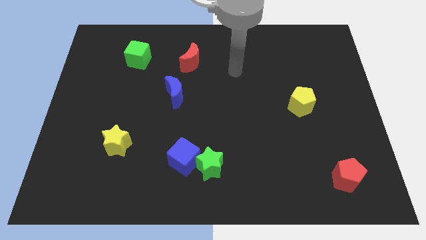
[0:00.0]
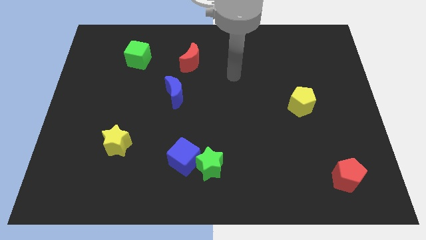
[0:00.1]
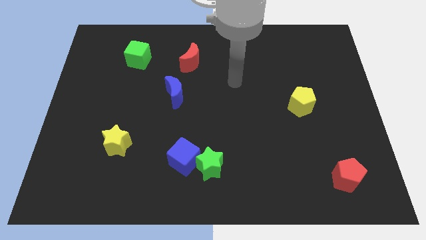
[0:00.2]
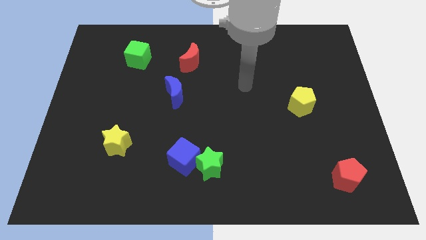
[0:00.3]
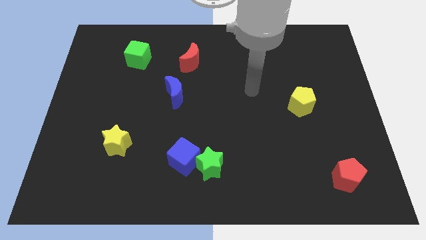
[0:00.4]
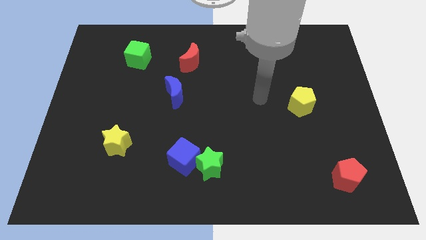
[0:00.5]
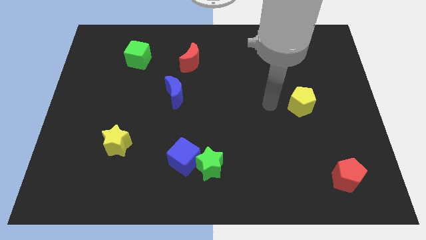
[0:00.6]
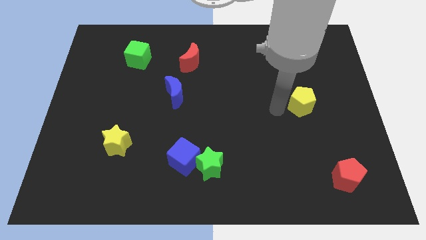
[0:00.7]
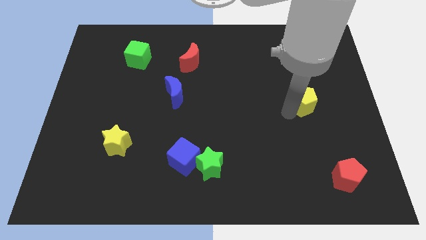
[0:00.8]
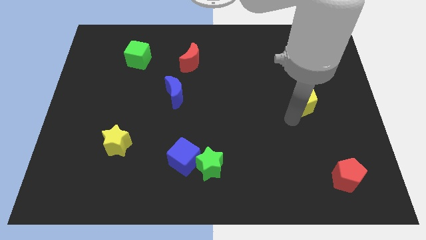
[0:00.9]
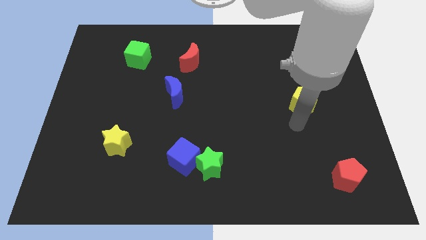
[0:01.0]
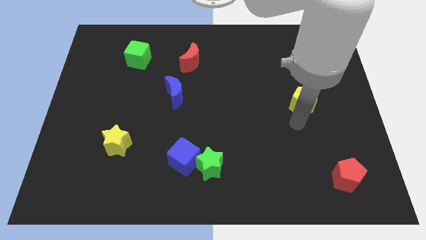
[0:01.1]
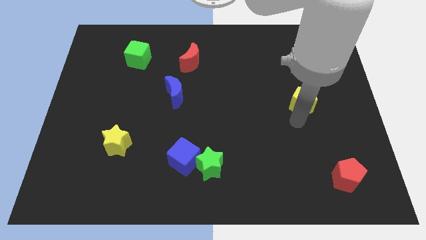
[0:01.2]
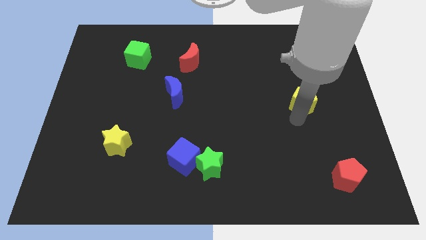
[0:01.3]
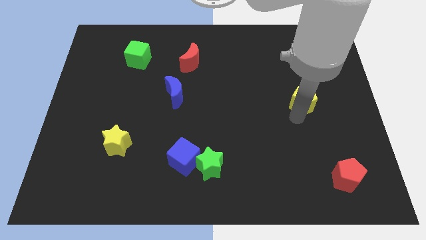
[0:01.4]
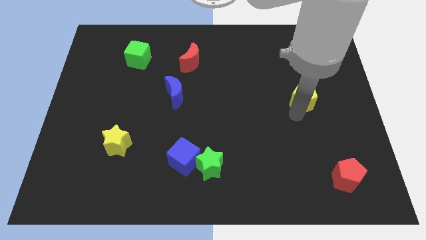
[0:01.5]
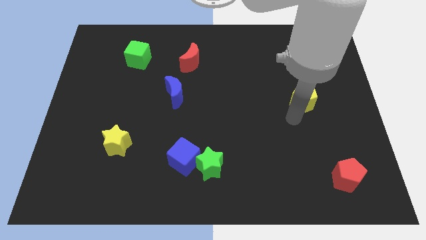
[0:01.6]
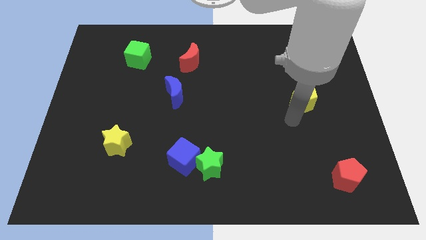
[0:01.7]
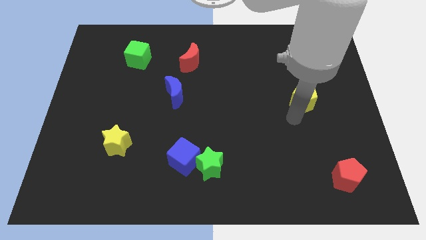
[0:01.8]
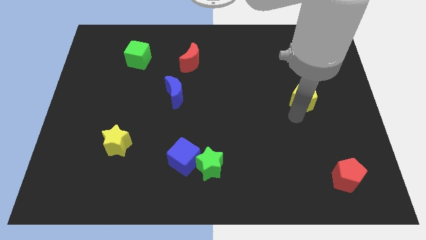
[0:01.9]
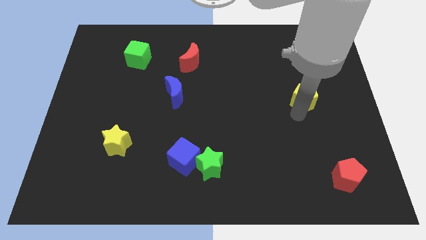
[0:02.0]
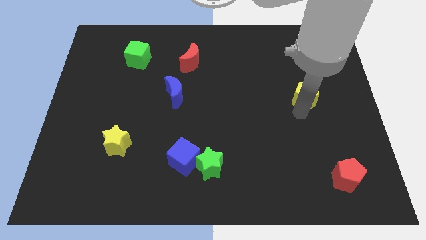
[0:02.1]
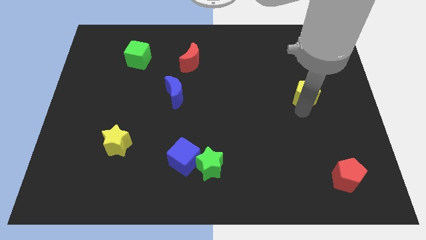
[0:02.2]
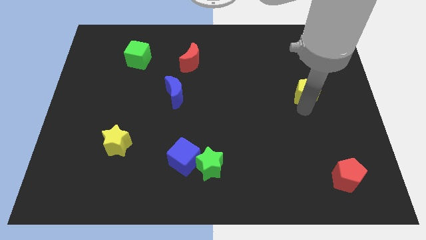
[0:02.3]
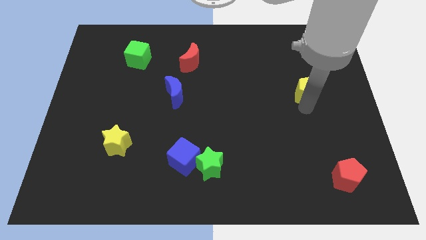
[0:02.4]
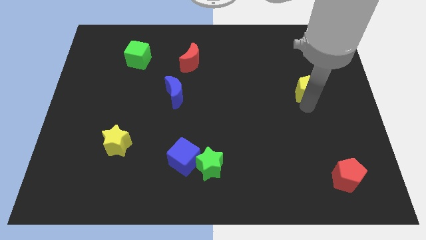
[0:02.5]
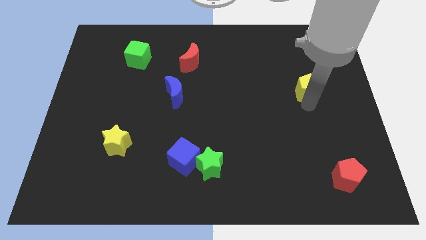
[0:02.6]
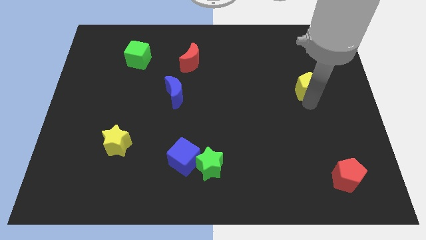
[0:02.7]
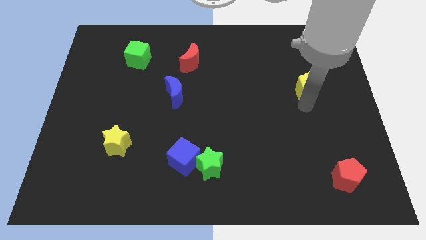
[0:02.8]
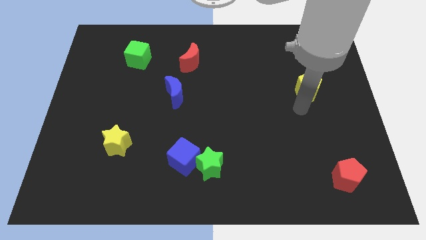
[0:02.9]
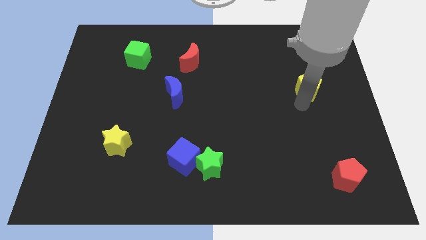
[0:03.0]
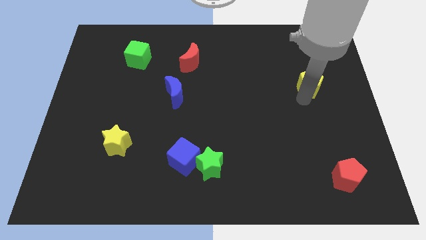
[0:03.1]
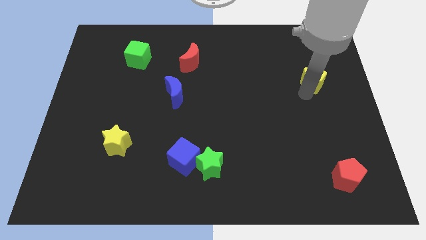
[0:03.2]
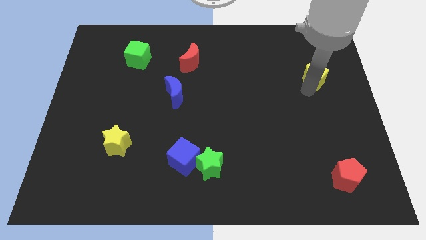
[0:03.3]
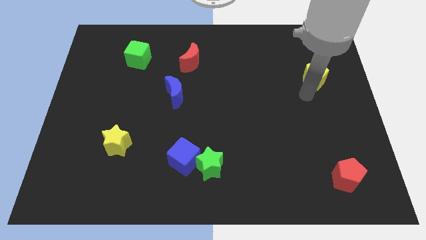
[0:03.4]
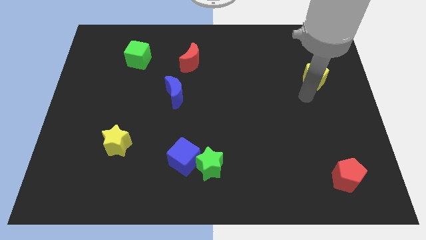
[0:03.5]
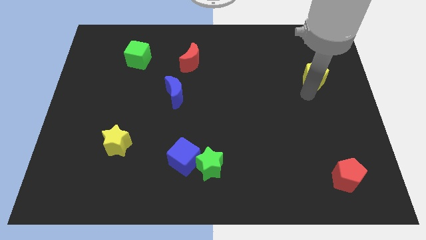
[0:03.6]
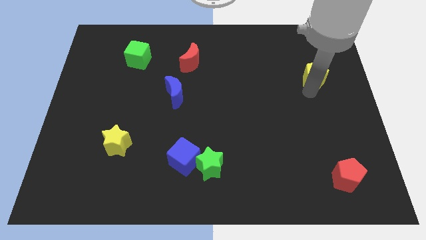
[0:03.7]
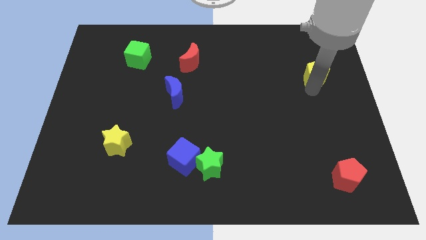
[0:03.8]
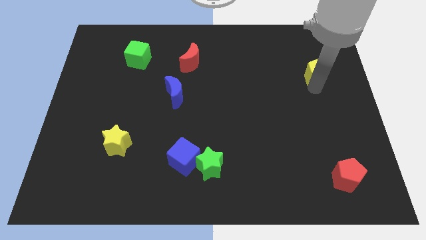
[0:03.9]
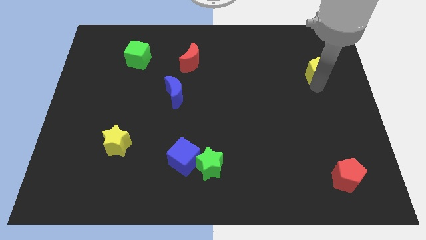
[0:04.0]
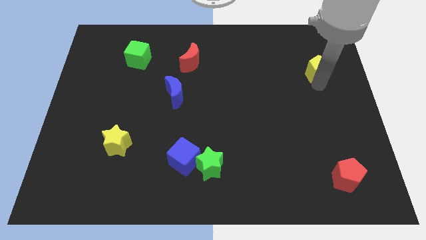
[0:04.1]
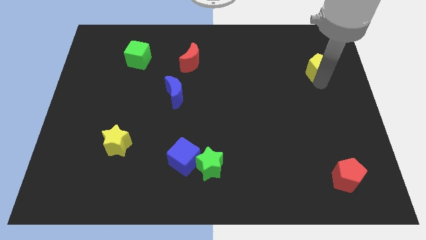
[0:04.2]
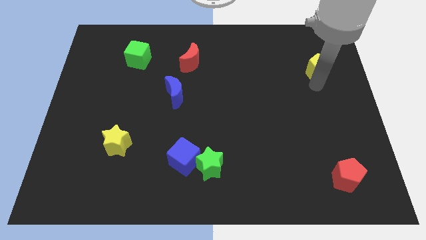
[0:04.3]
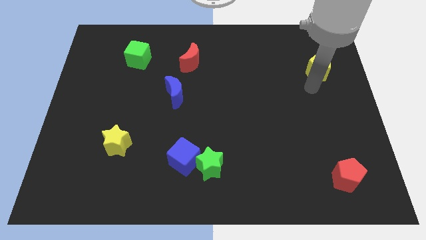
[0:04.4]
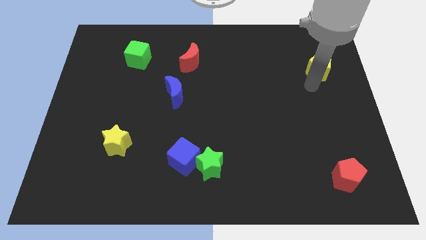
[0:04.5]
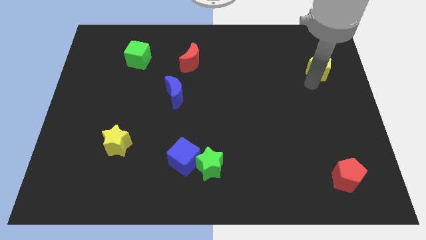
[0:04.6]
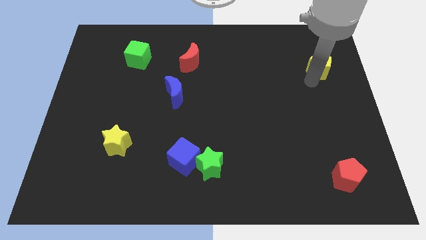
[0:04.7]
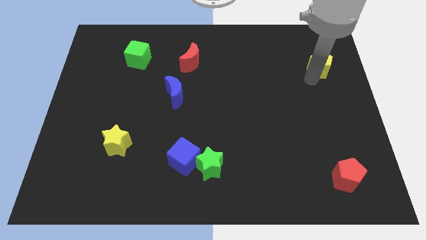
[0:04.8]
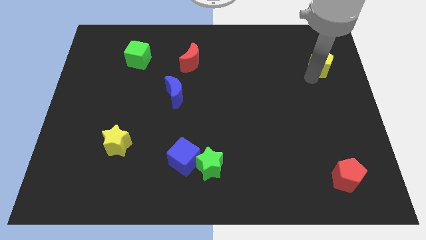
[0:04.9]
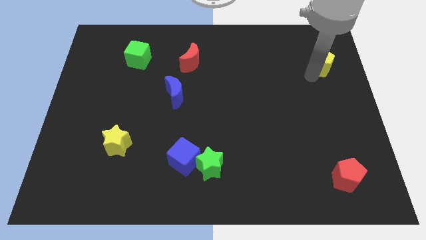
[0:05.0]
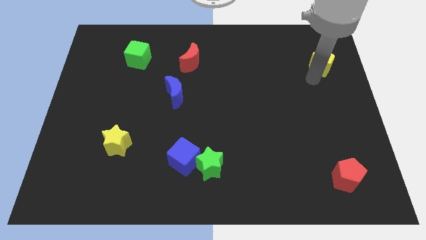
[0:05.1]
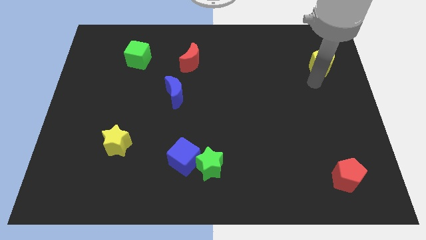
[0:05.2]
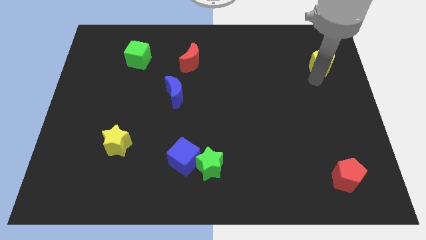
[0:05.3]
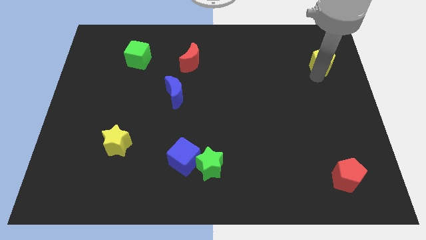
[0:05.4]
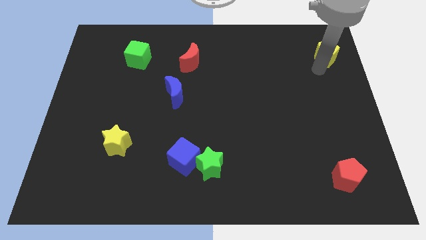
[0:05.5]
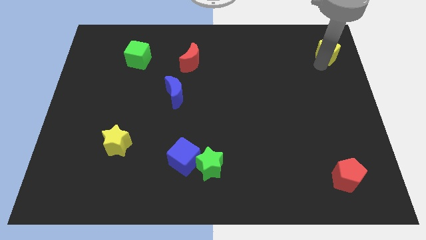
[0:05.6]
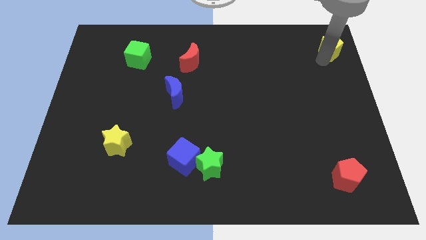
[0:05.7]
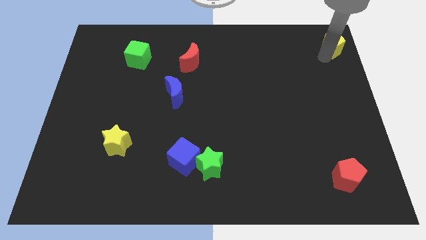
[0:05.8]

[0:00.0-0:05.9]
slide the yellow pentagon to the upper right corner

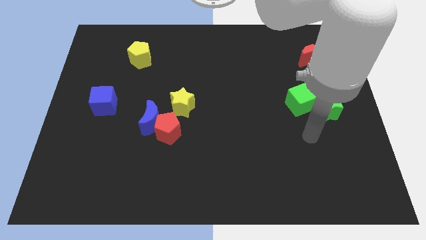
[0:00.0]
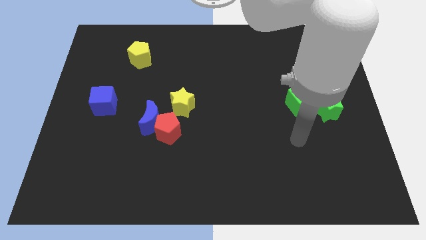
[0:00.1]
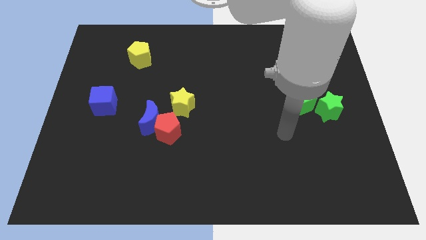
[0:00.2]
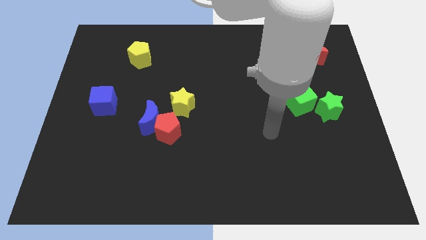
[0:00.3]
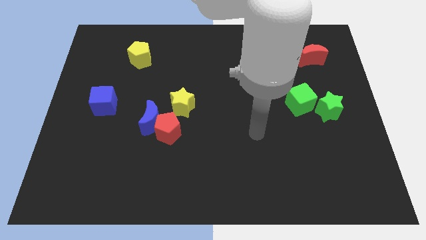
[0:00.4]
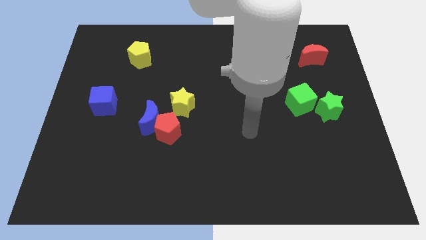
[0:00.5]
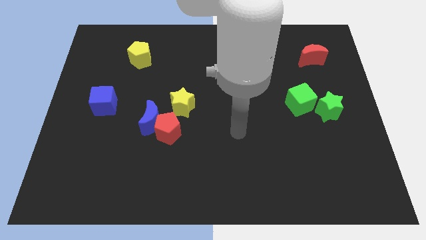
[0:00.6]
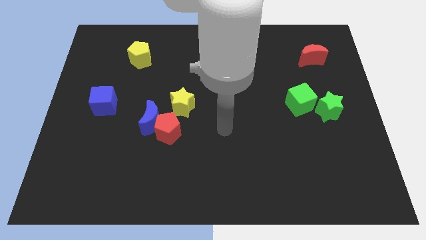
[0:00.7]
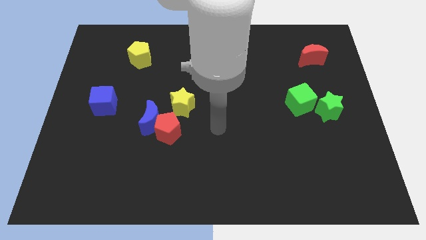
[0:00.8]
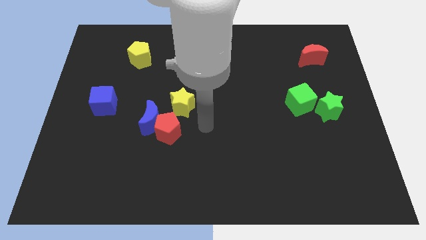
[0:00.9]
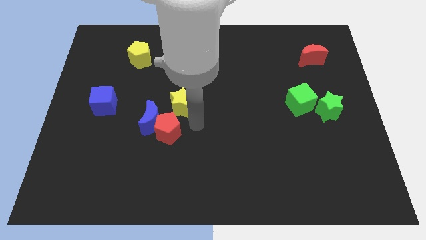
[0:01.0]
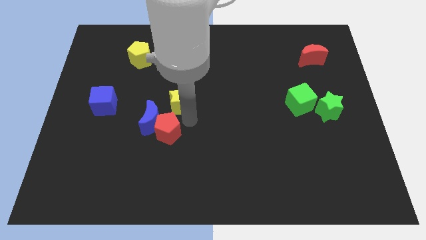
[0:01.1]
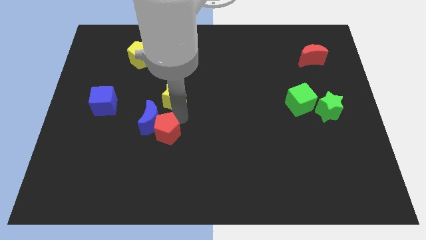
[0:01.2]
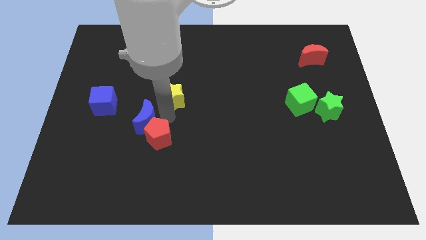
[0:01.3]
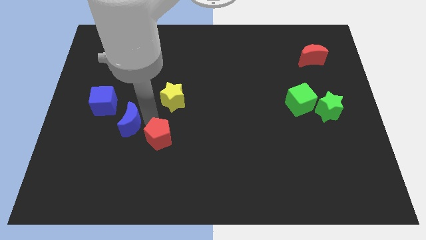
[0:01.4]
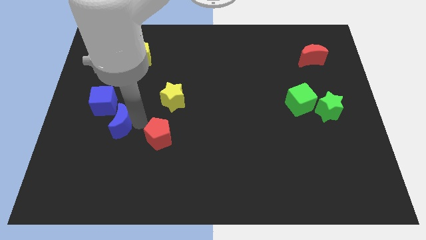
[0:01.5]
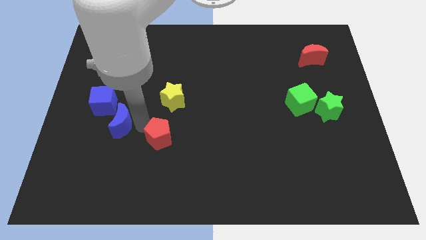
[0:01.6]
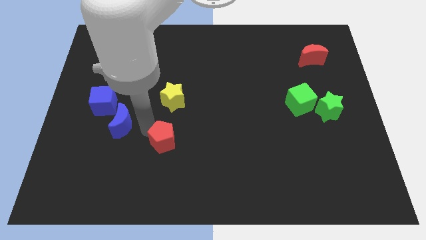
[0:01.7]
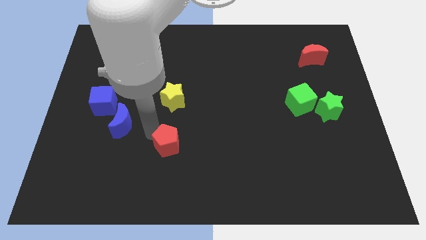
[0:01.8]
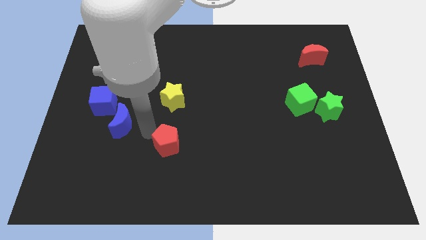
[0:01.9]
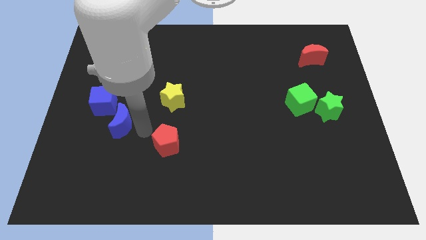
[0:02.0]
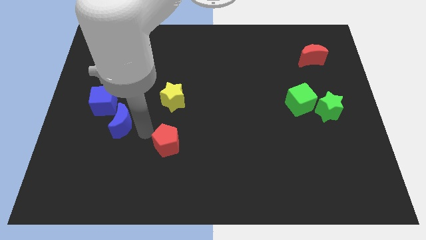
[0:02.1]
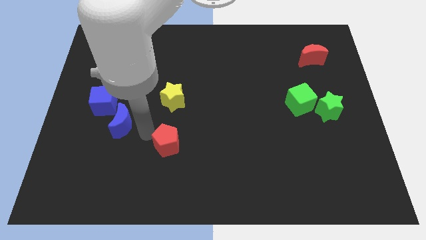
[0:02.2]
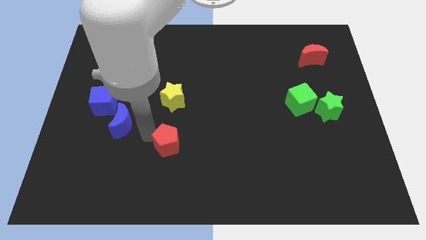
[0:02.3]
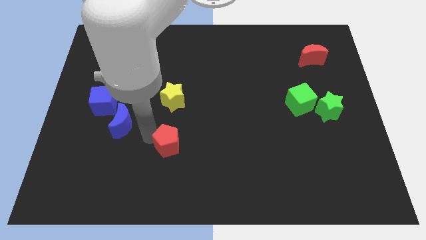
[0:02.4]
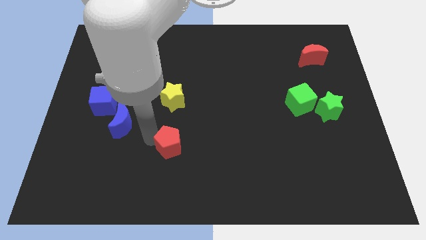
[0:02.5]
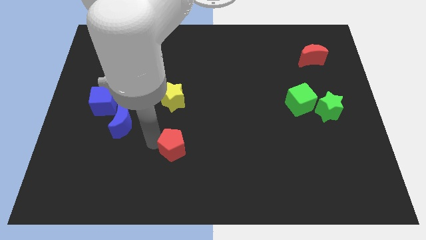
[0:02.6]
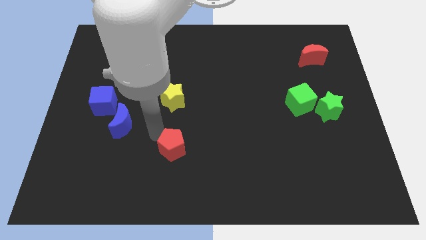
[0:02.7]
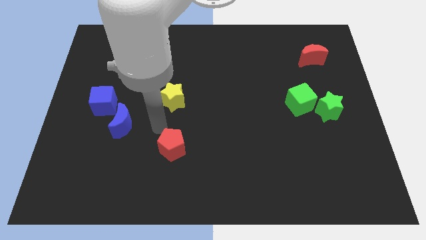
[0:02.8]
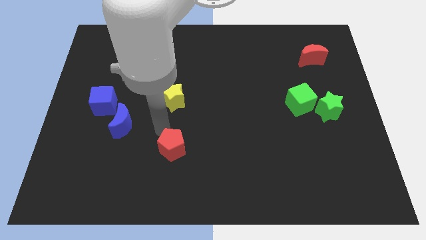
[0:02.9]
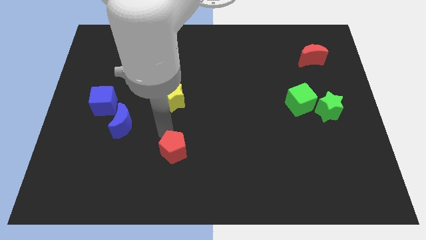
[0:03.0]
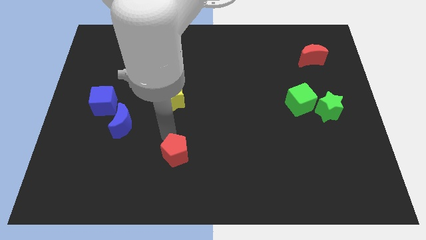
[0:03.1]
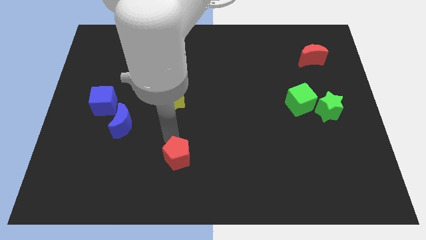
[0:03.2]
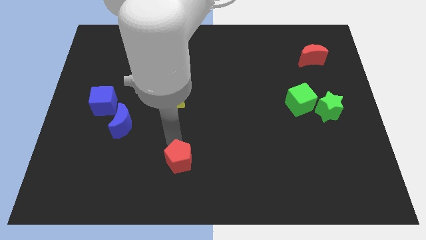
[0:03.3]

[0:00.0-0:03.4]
slide the red pentagon to the bottom side
